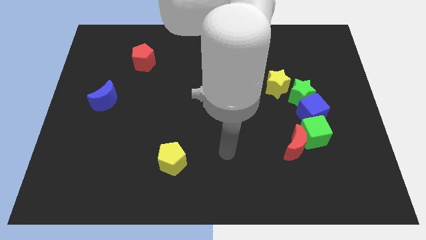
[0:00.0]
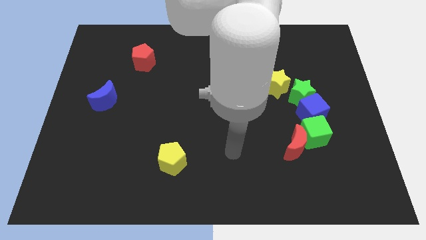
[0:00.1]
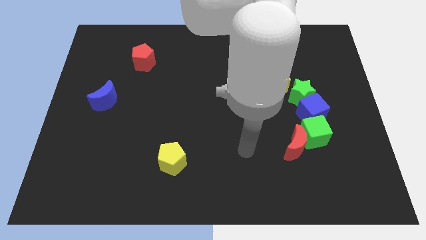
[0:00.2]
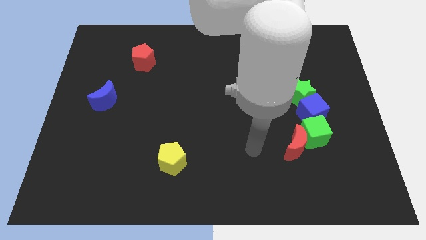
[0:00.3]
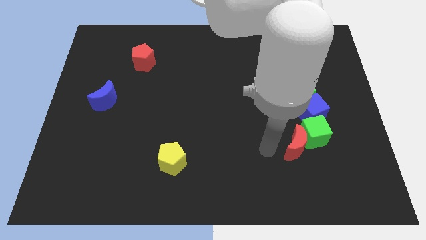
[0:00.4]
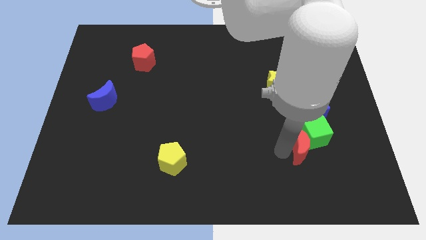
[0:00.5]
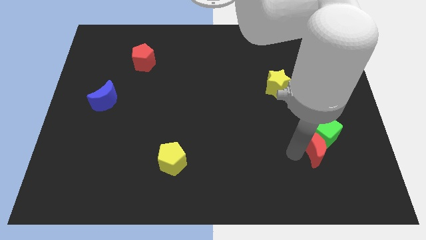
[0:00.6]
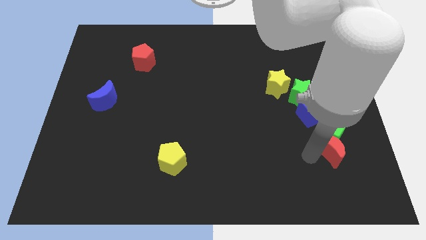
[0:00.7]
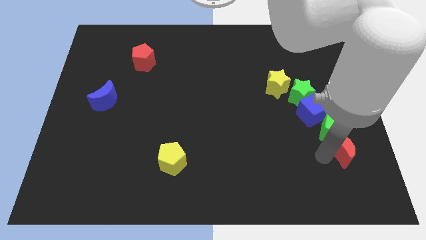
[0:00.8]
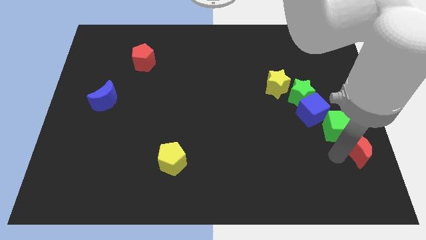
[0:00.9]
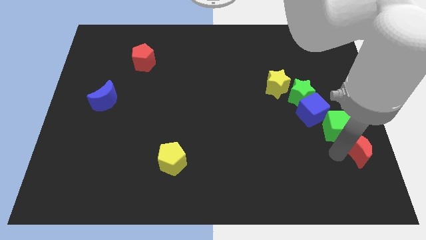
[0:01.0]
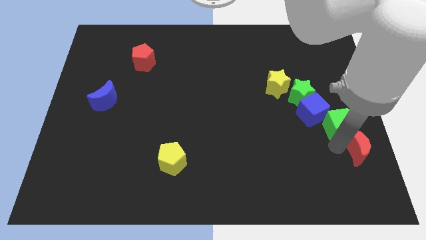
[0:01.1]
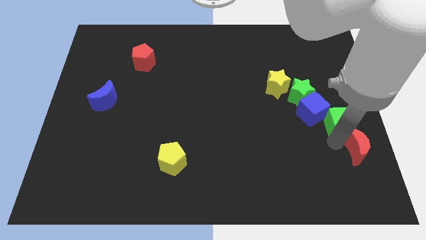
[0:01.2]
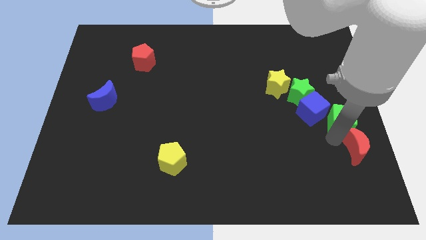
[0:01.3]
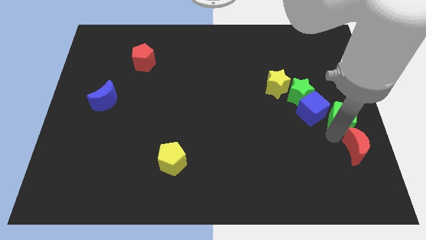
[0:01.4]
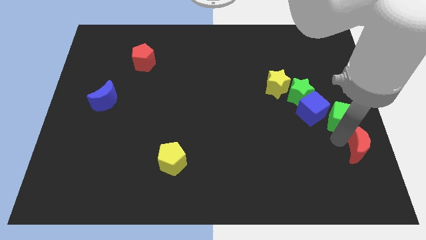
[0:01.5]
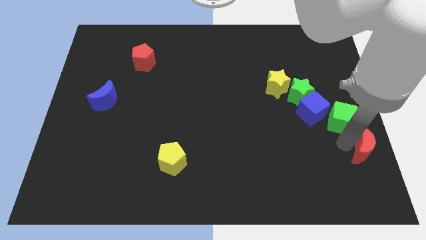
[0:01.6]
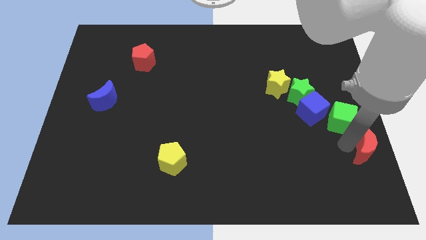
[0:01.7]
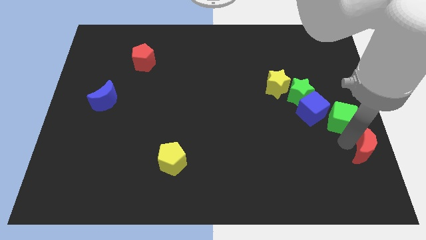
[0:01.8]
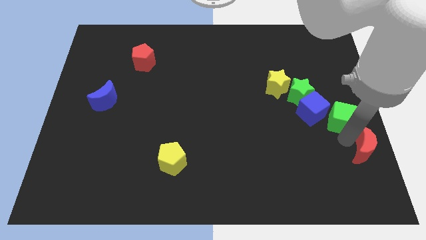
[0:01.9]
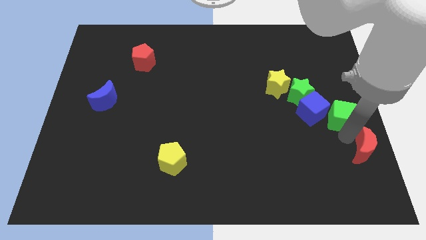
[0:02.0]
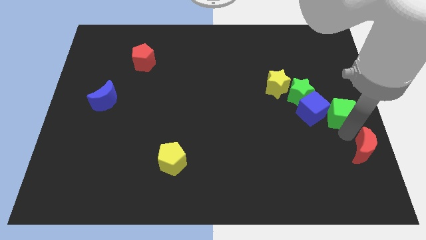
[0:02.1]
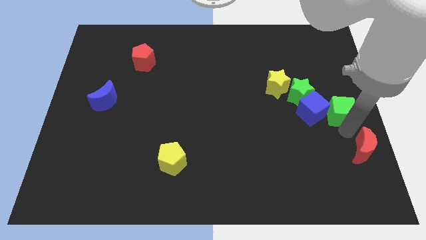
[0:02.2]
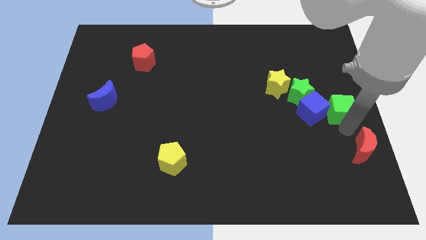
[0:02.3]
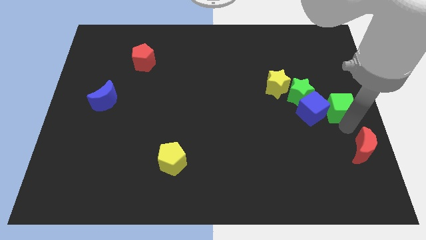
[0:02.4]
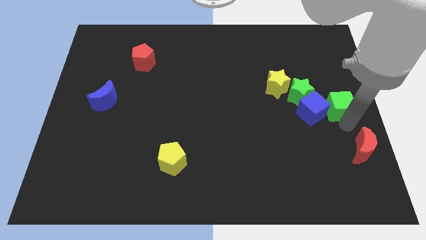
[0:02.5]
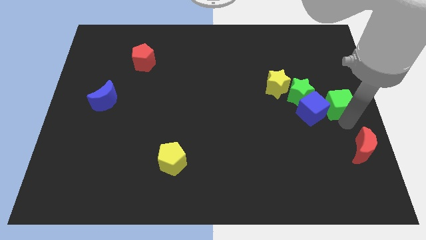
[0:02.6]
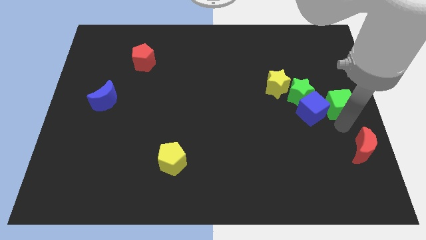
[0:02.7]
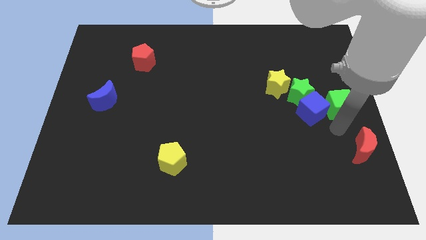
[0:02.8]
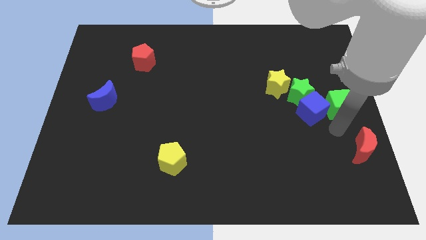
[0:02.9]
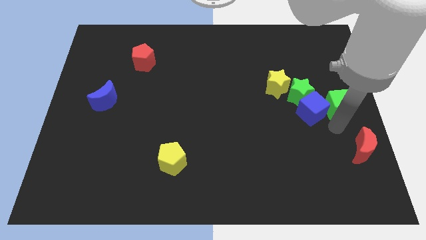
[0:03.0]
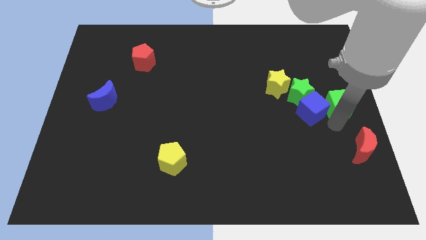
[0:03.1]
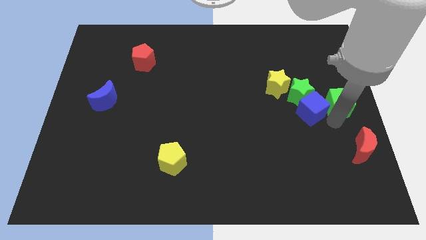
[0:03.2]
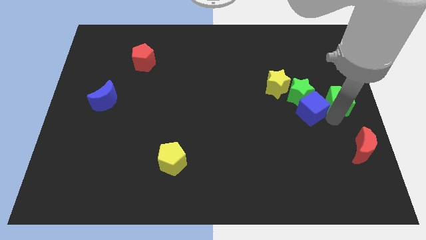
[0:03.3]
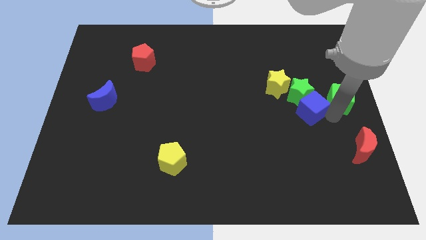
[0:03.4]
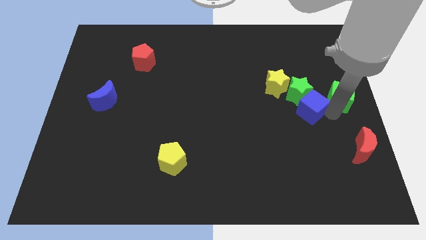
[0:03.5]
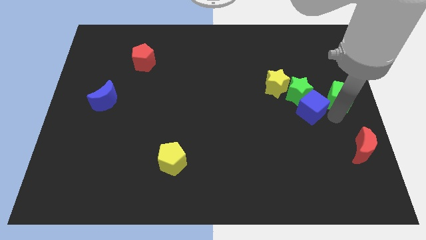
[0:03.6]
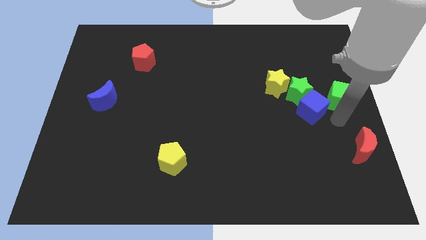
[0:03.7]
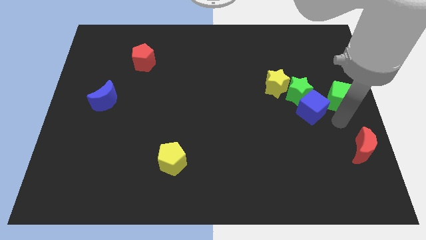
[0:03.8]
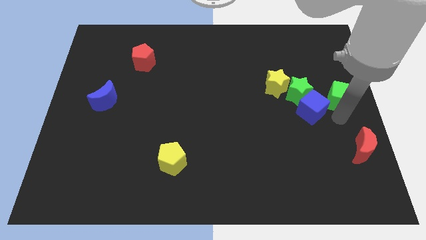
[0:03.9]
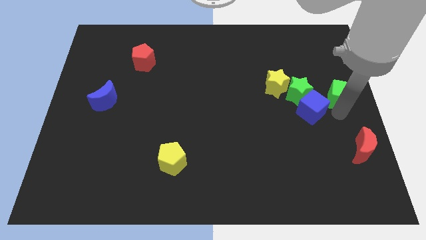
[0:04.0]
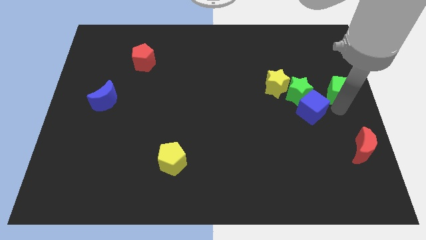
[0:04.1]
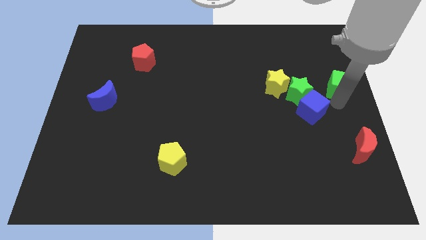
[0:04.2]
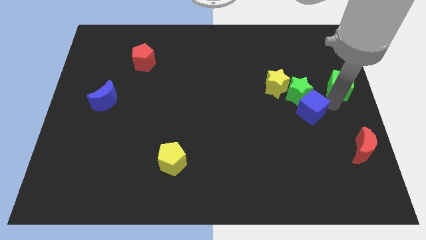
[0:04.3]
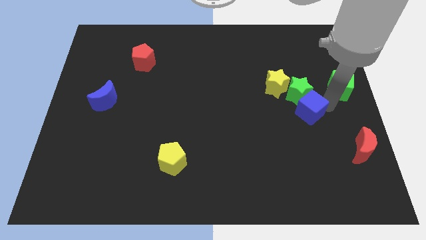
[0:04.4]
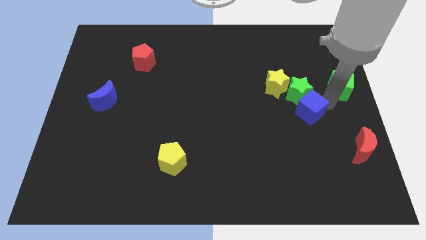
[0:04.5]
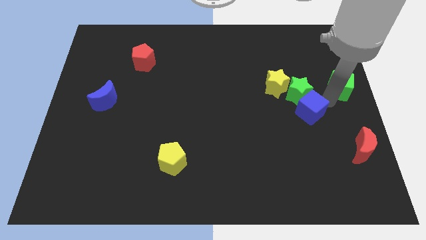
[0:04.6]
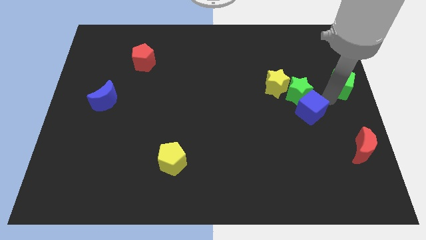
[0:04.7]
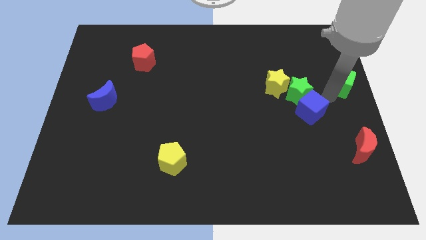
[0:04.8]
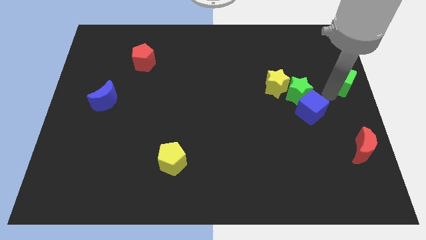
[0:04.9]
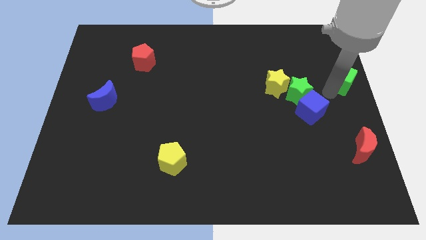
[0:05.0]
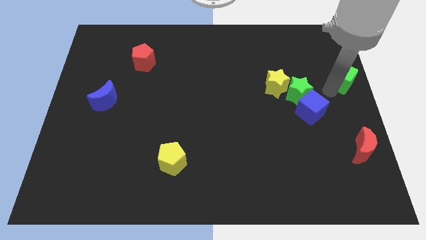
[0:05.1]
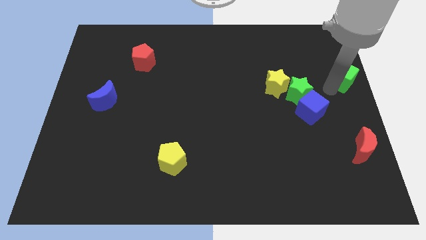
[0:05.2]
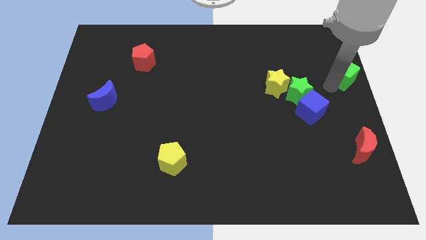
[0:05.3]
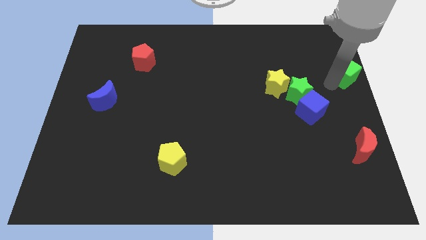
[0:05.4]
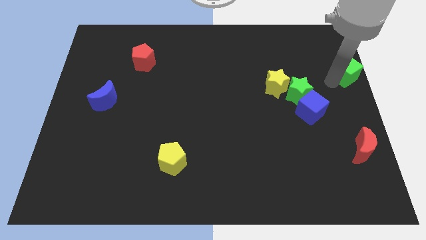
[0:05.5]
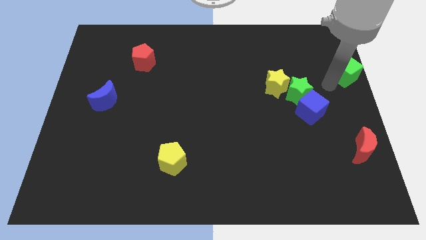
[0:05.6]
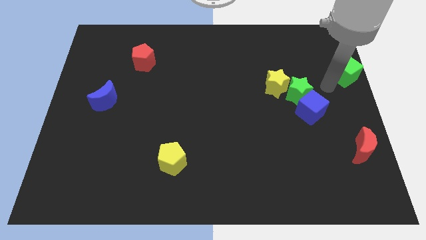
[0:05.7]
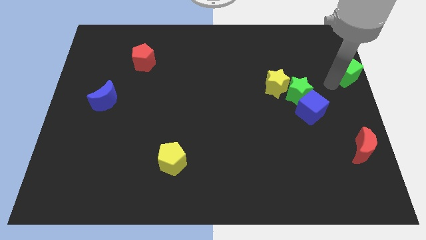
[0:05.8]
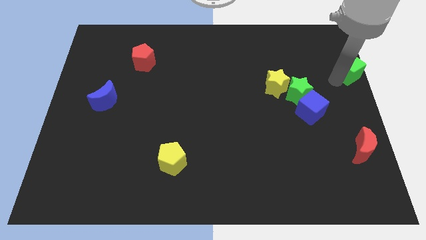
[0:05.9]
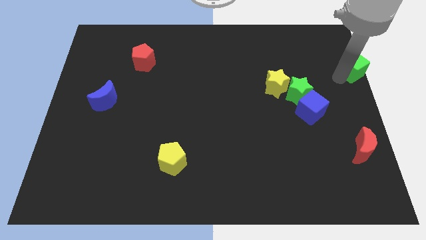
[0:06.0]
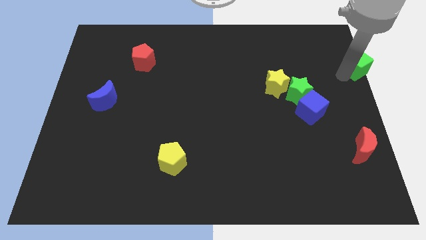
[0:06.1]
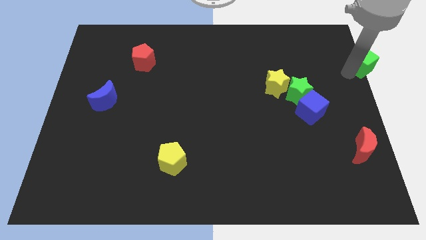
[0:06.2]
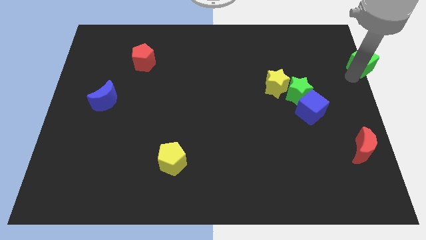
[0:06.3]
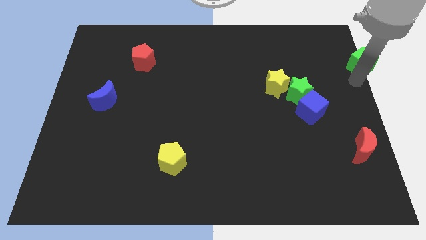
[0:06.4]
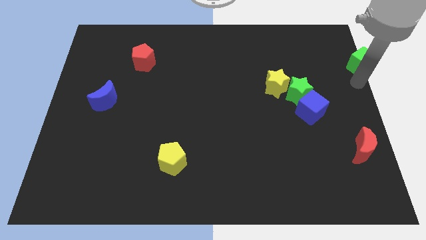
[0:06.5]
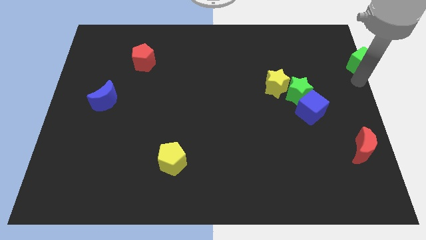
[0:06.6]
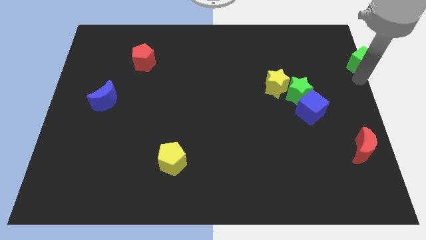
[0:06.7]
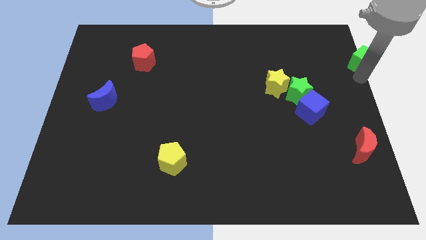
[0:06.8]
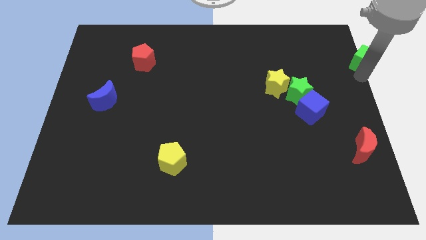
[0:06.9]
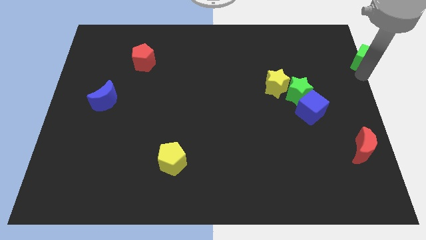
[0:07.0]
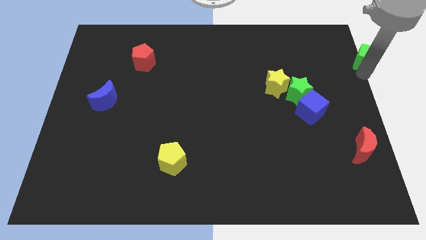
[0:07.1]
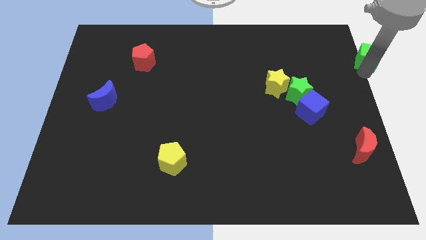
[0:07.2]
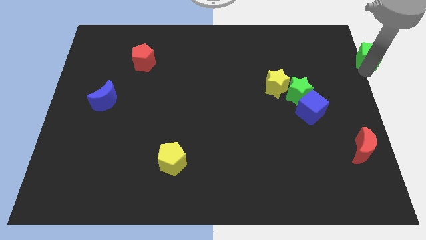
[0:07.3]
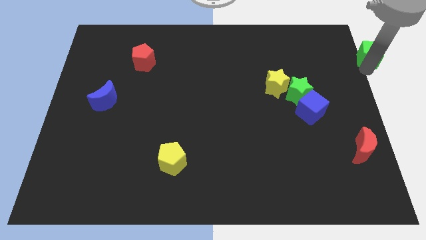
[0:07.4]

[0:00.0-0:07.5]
push the green cube to the upper right corner
